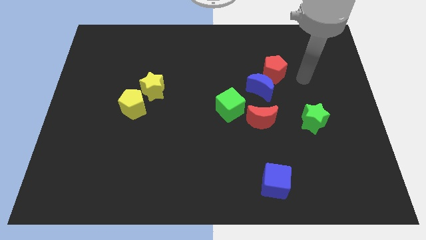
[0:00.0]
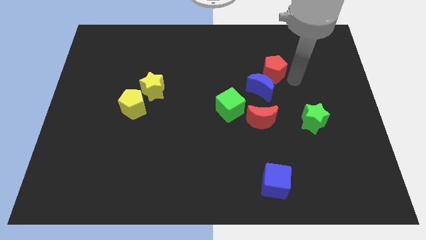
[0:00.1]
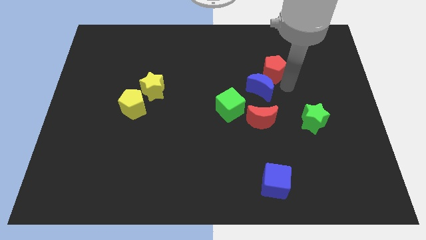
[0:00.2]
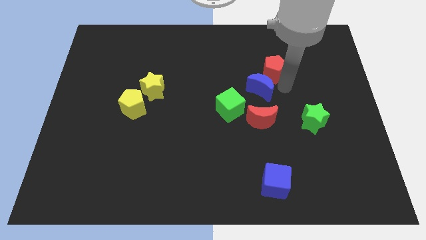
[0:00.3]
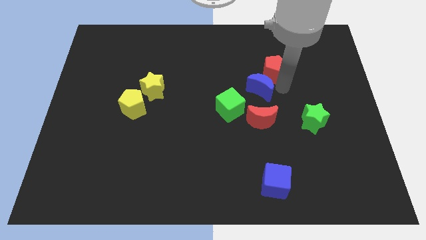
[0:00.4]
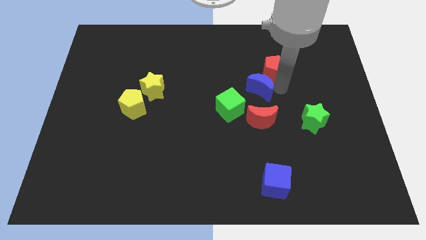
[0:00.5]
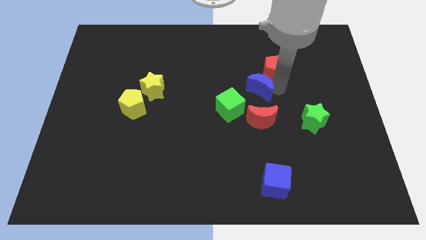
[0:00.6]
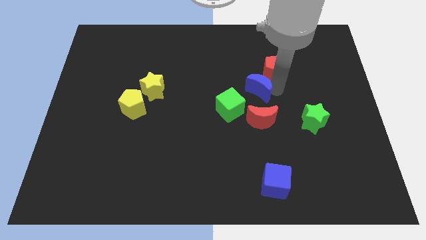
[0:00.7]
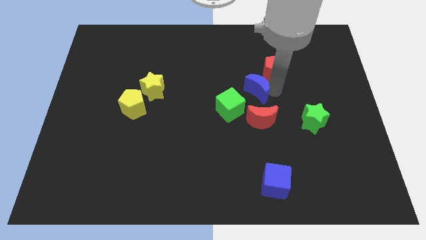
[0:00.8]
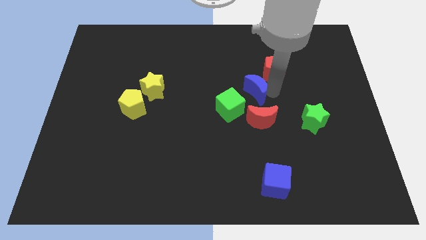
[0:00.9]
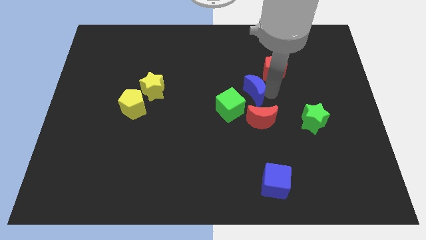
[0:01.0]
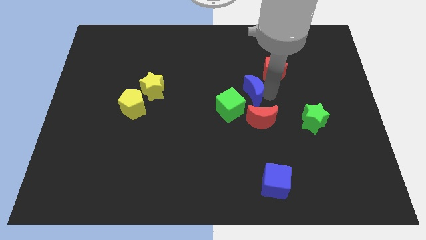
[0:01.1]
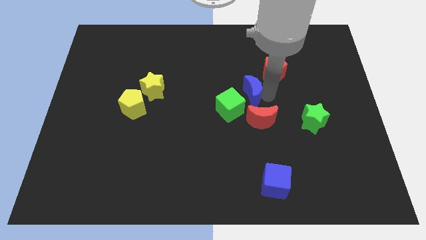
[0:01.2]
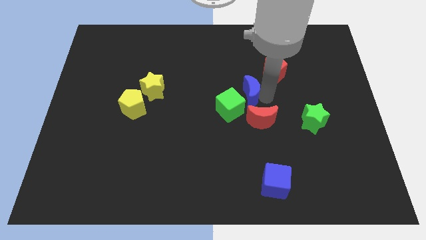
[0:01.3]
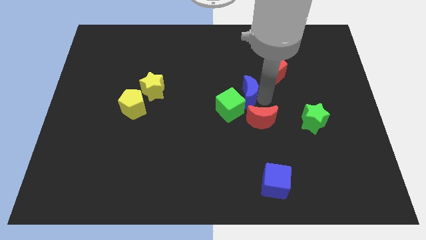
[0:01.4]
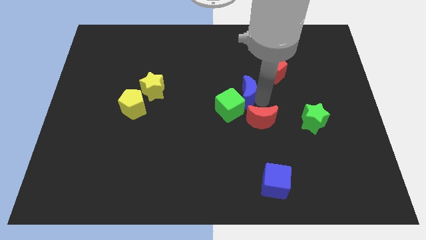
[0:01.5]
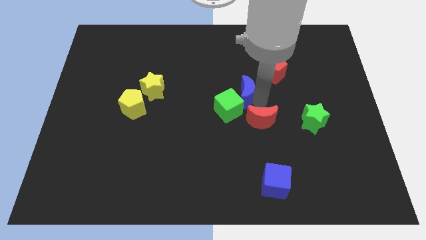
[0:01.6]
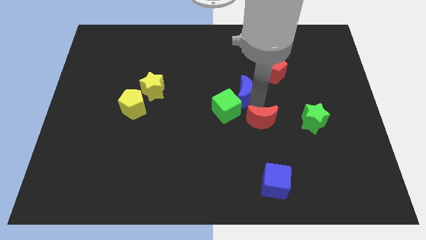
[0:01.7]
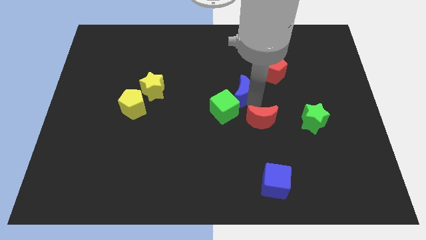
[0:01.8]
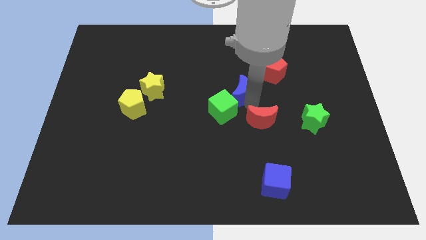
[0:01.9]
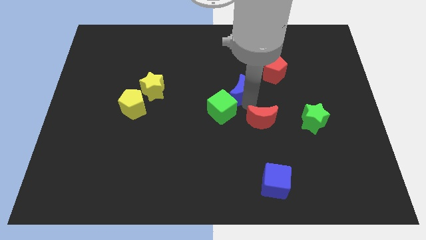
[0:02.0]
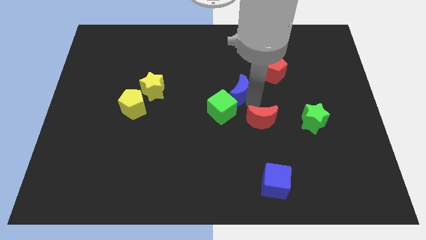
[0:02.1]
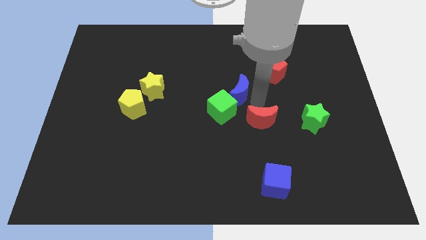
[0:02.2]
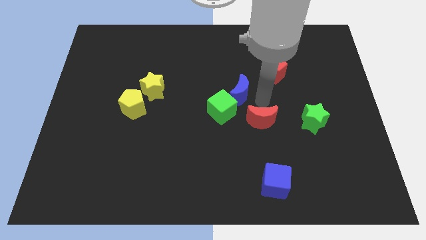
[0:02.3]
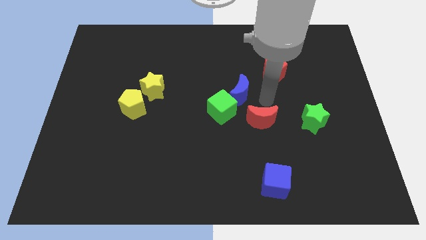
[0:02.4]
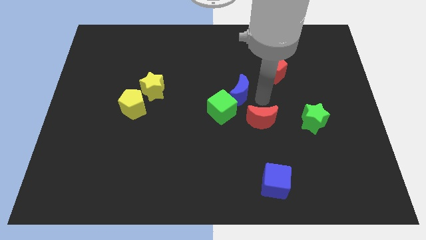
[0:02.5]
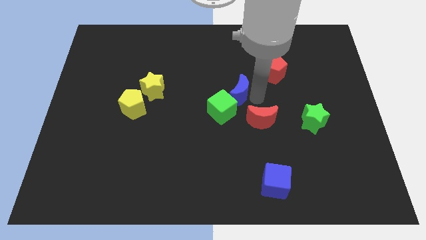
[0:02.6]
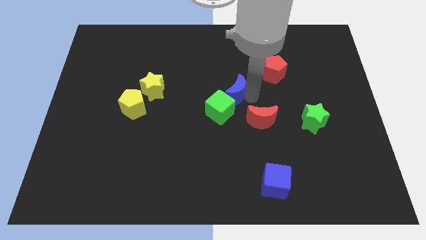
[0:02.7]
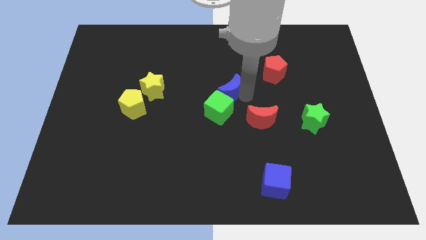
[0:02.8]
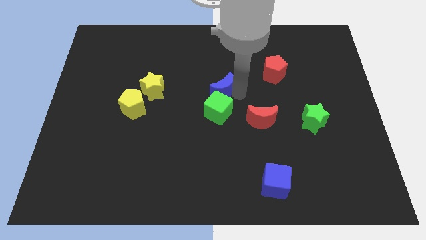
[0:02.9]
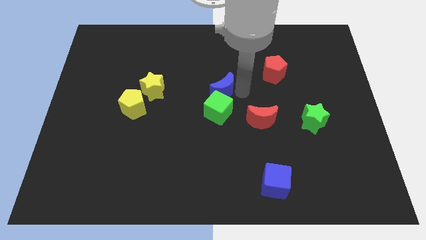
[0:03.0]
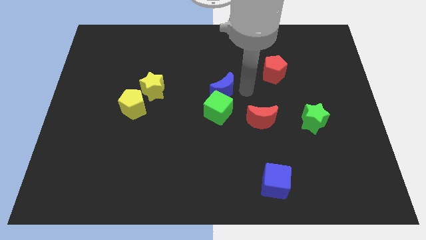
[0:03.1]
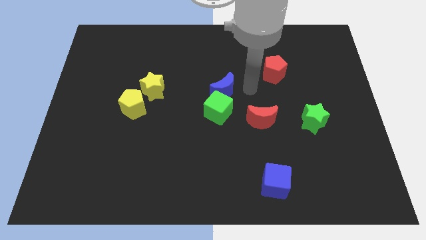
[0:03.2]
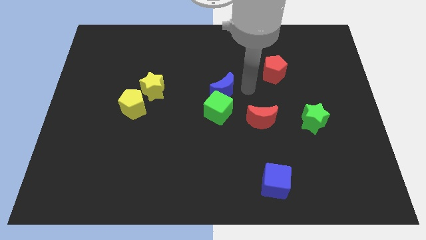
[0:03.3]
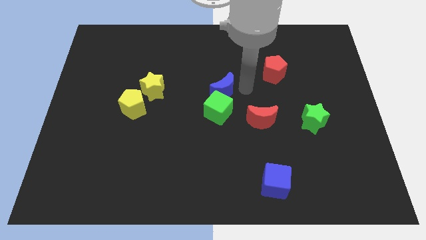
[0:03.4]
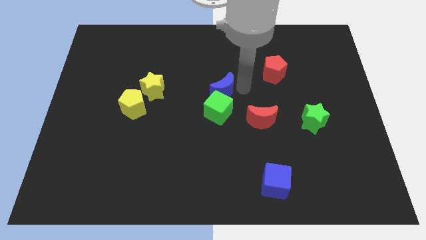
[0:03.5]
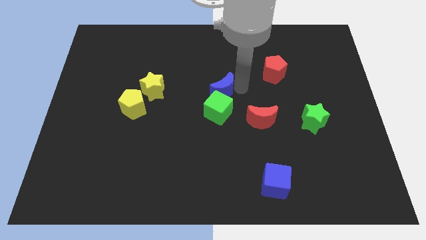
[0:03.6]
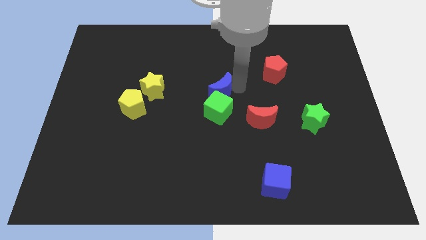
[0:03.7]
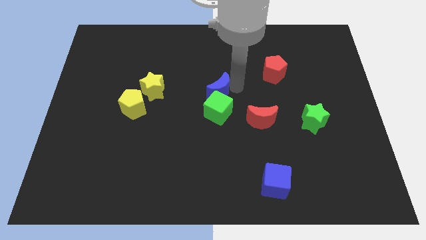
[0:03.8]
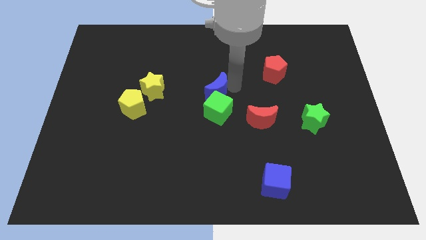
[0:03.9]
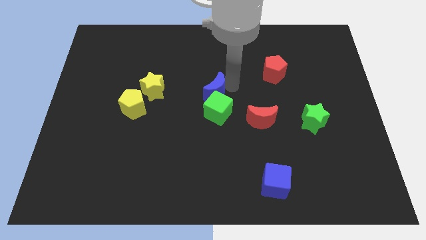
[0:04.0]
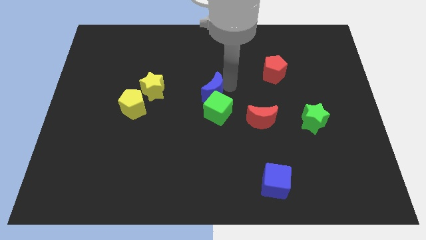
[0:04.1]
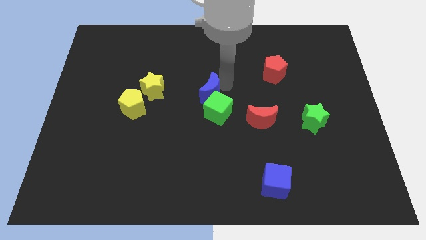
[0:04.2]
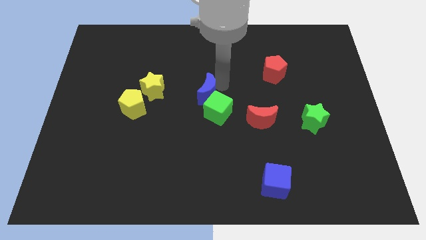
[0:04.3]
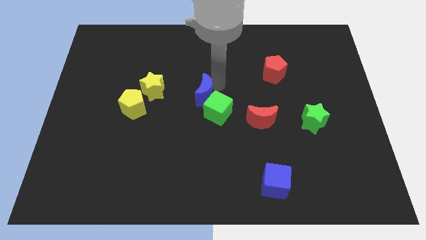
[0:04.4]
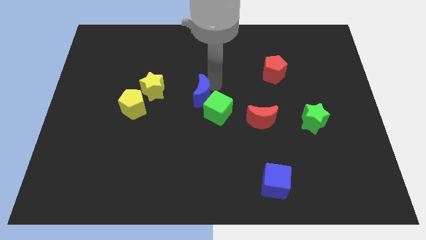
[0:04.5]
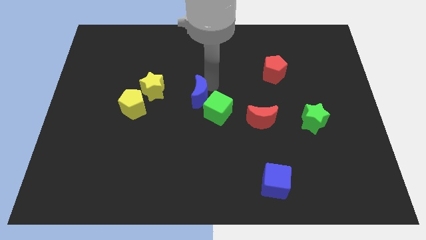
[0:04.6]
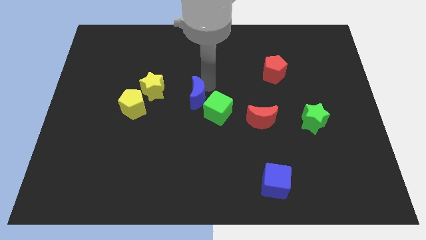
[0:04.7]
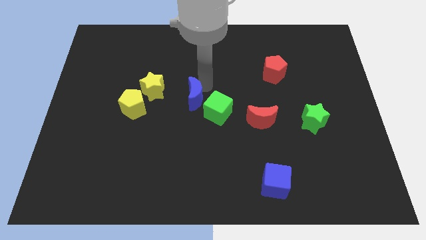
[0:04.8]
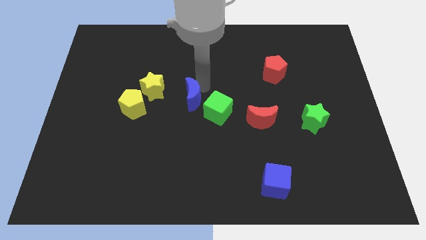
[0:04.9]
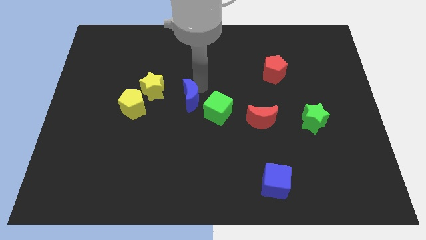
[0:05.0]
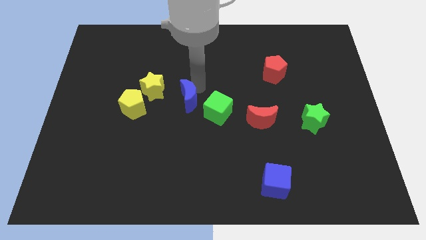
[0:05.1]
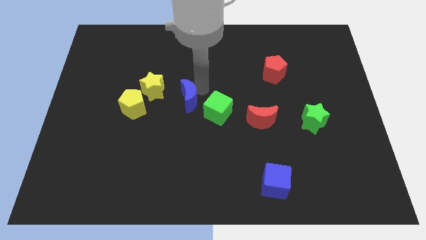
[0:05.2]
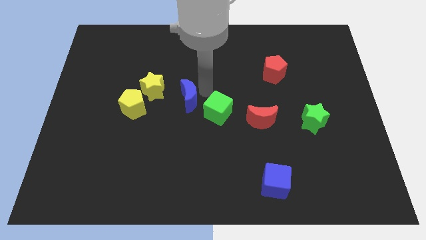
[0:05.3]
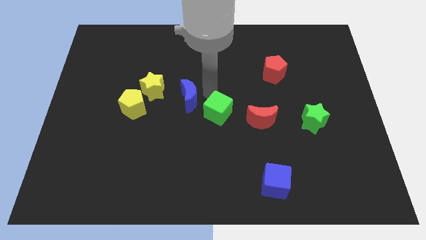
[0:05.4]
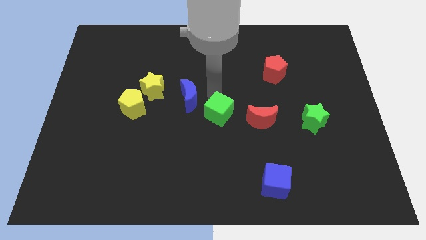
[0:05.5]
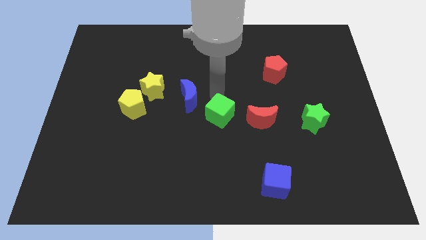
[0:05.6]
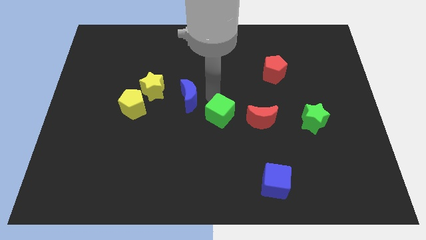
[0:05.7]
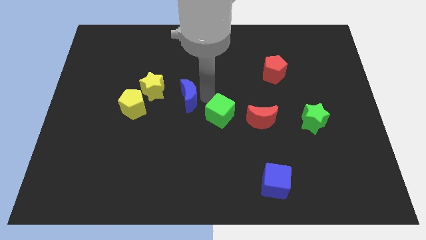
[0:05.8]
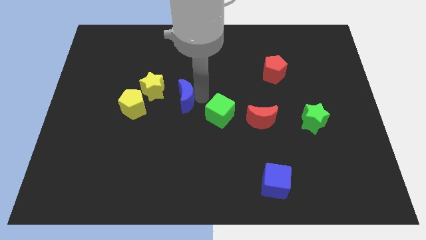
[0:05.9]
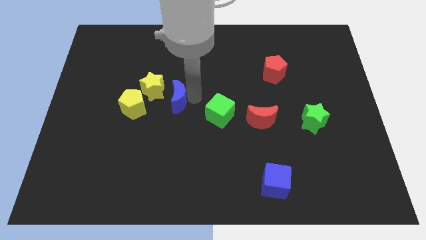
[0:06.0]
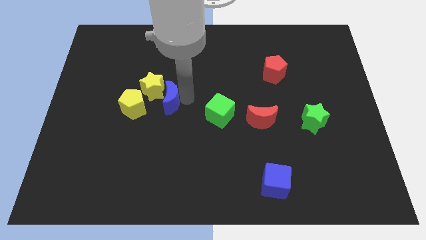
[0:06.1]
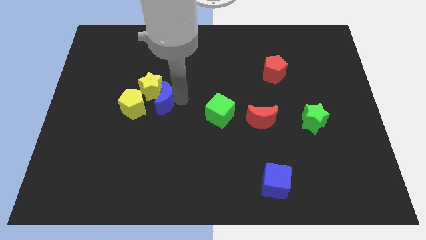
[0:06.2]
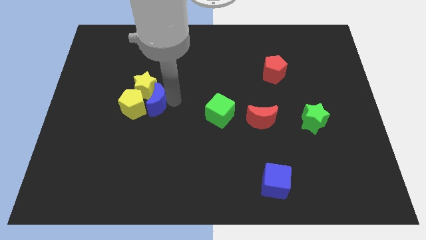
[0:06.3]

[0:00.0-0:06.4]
move the blue moon towards the yellow pentagon
